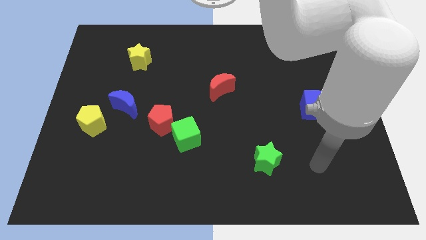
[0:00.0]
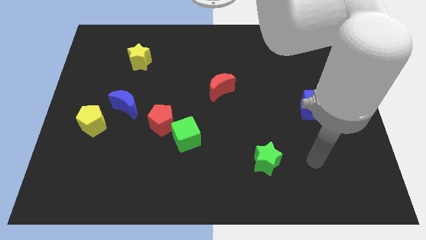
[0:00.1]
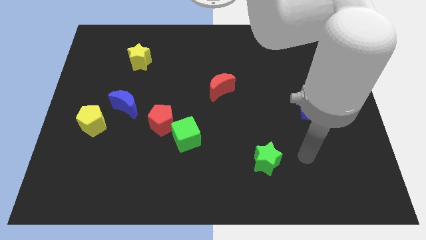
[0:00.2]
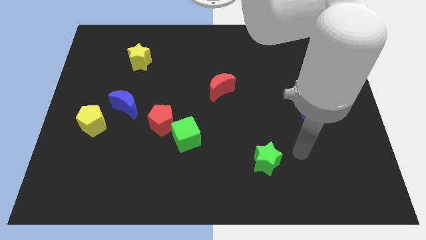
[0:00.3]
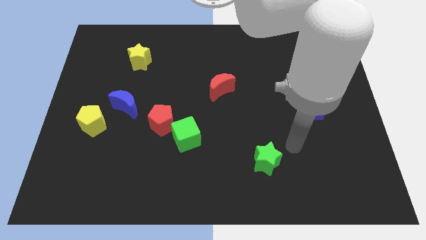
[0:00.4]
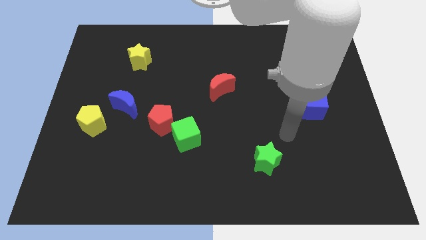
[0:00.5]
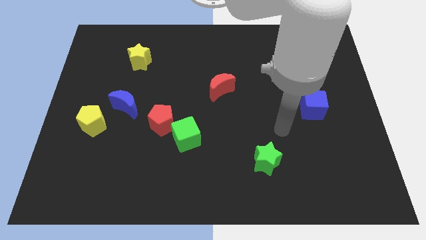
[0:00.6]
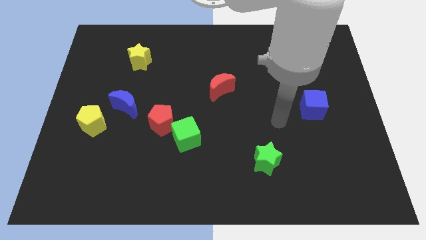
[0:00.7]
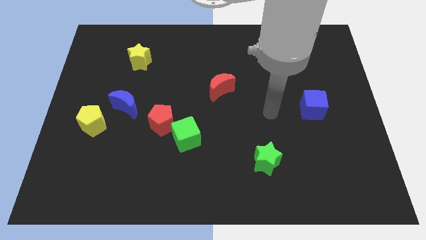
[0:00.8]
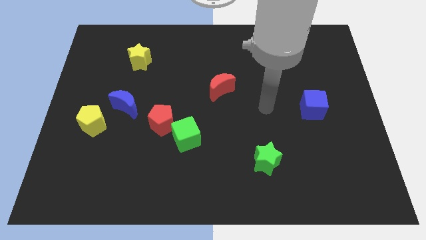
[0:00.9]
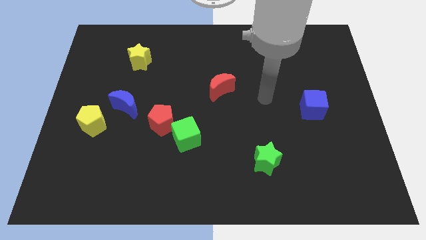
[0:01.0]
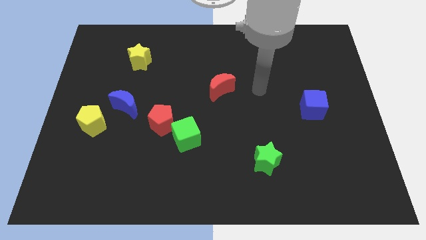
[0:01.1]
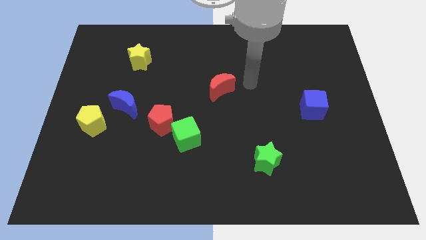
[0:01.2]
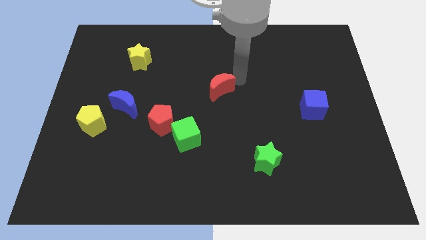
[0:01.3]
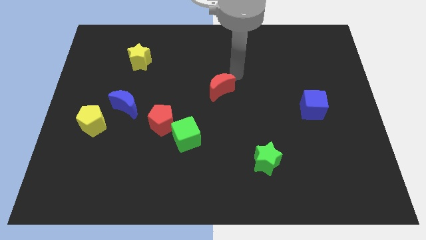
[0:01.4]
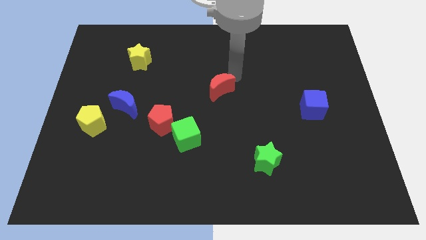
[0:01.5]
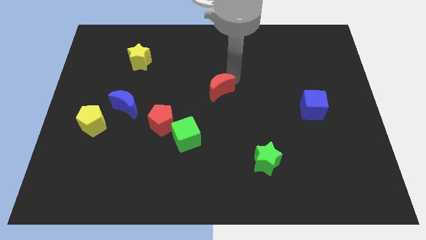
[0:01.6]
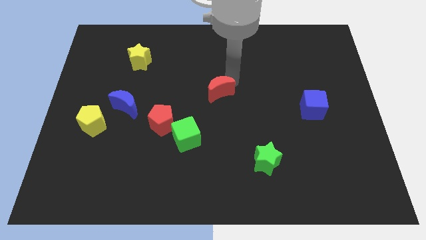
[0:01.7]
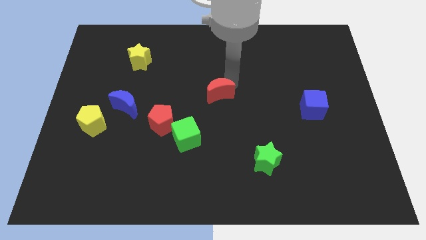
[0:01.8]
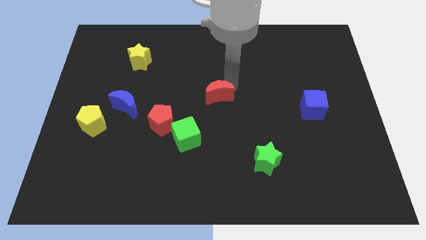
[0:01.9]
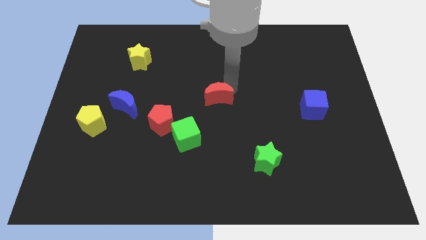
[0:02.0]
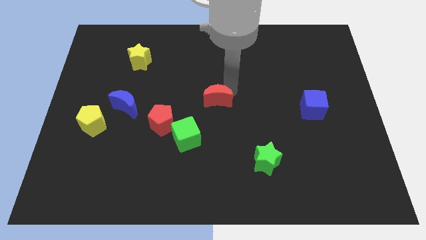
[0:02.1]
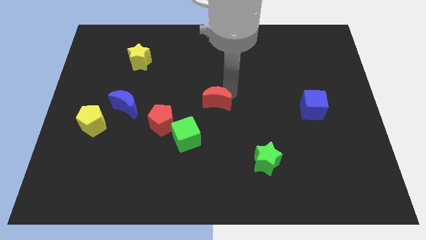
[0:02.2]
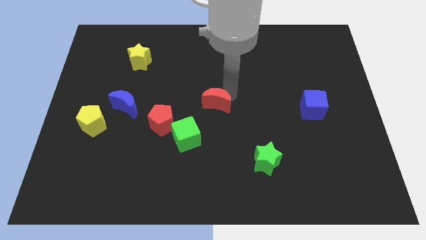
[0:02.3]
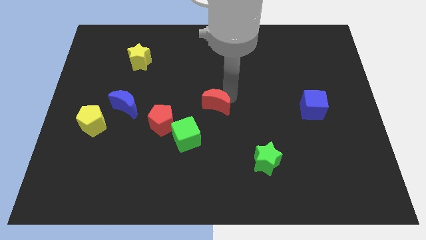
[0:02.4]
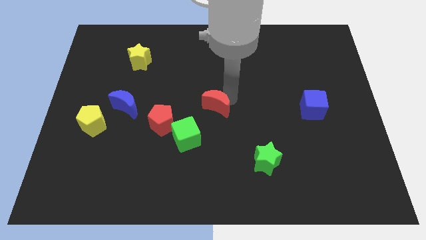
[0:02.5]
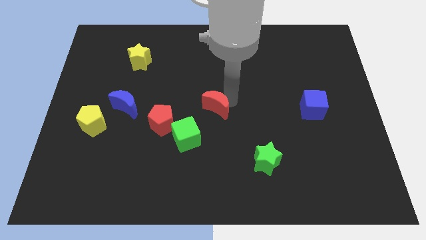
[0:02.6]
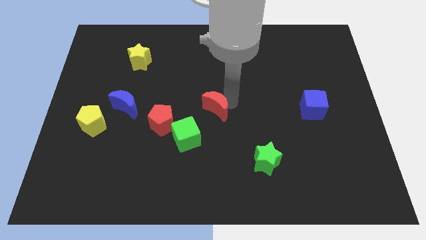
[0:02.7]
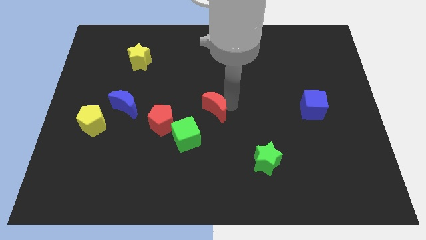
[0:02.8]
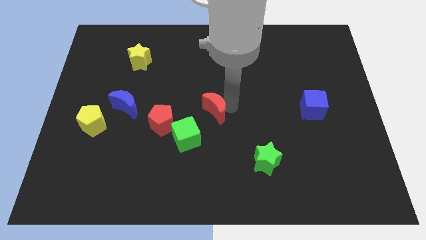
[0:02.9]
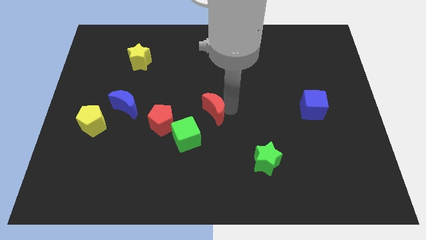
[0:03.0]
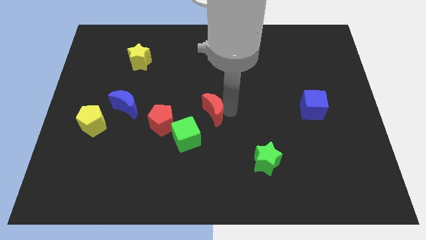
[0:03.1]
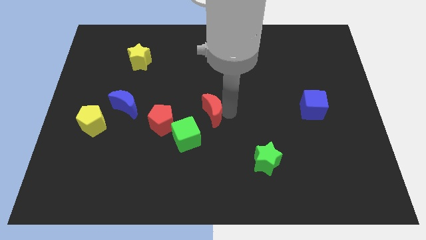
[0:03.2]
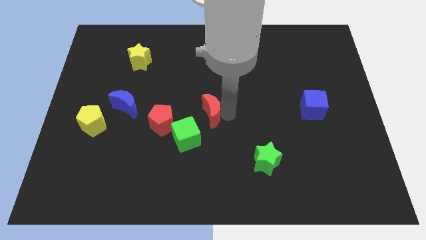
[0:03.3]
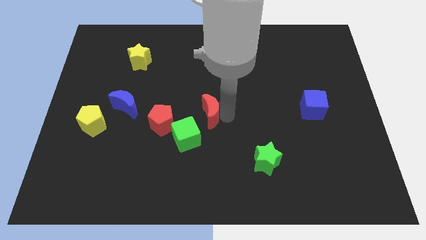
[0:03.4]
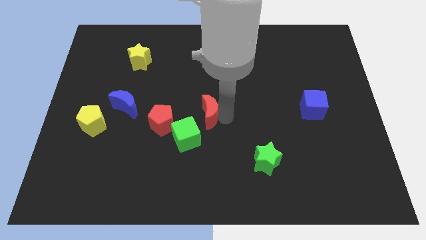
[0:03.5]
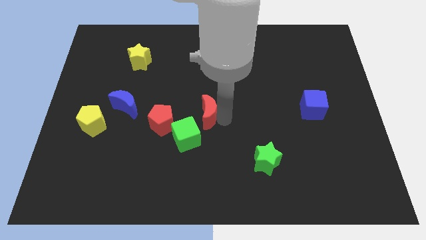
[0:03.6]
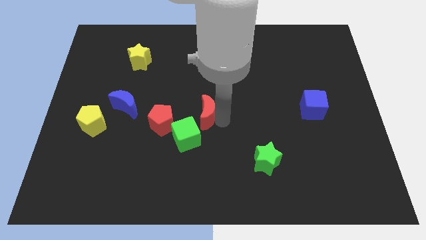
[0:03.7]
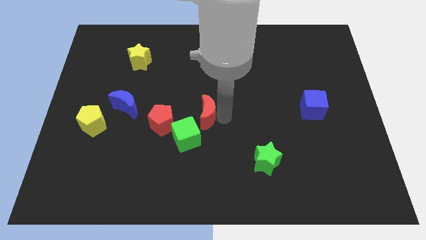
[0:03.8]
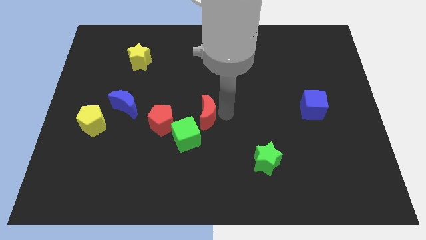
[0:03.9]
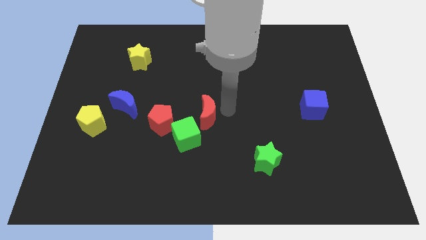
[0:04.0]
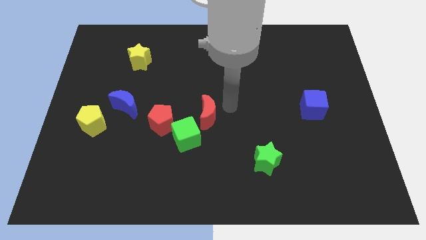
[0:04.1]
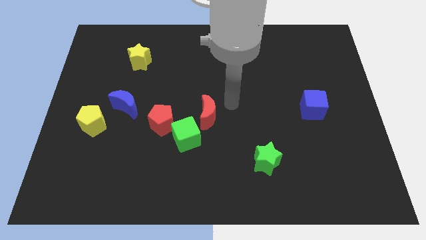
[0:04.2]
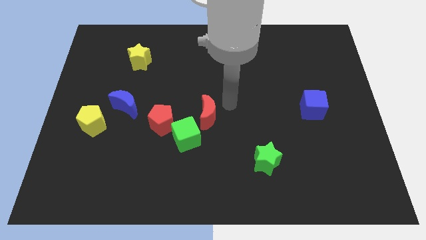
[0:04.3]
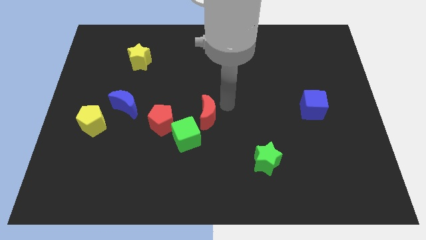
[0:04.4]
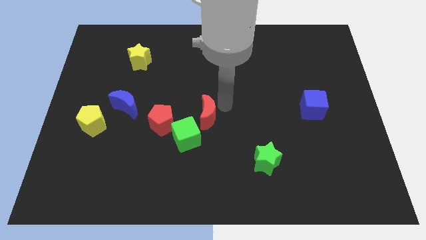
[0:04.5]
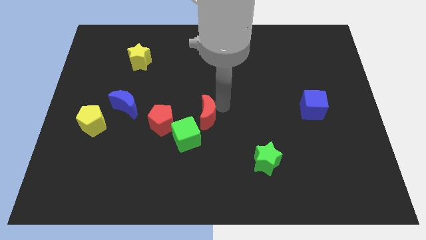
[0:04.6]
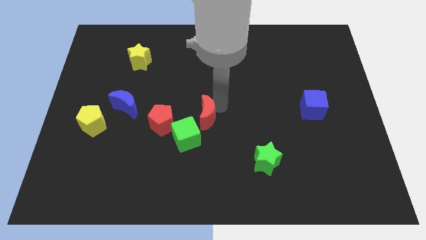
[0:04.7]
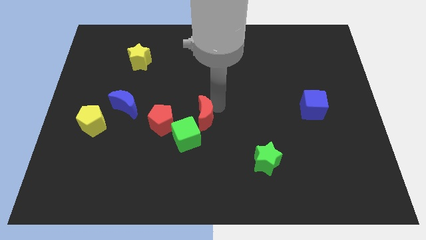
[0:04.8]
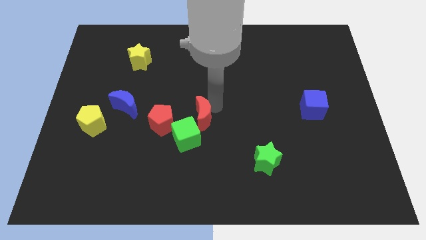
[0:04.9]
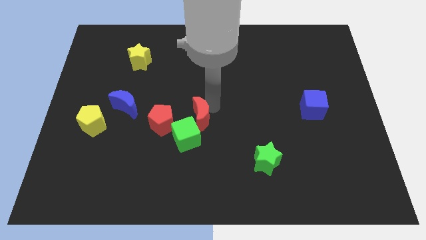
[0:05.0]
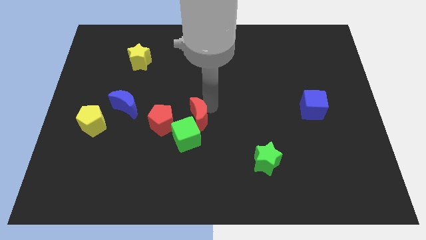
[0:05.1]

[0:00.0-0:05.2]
put the red moon to the green cube

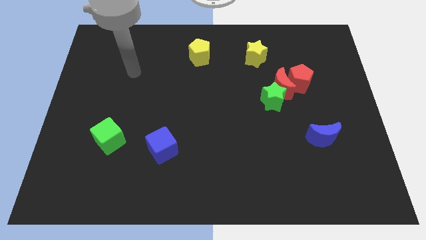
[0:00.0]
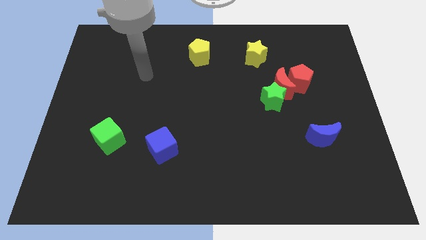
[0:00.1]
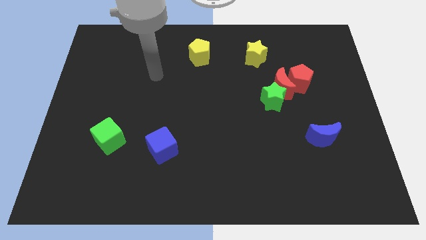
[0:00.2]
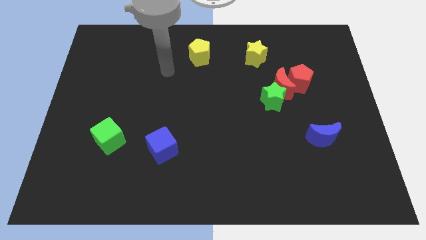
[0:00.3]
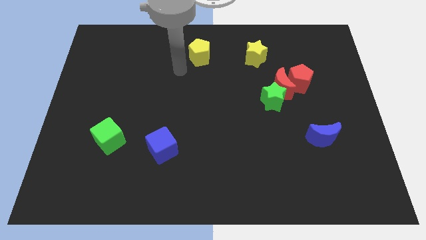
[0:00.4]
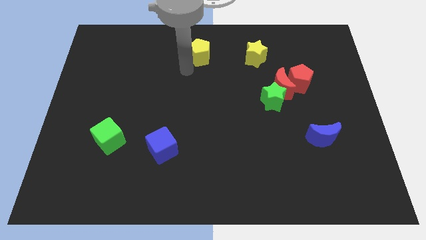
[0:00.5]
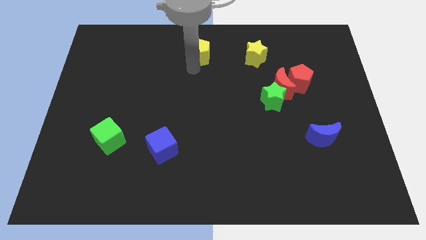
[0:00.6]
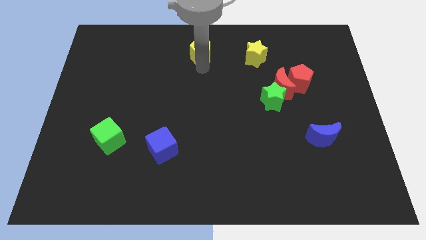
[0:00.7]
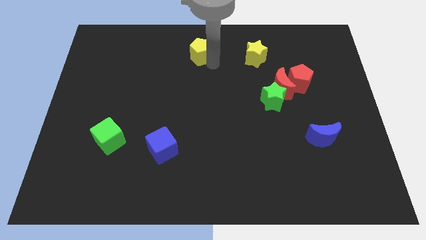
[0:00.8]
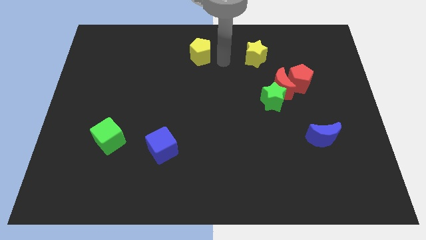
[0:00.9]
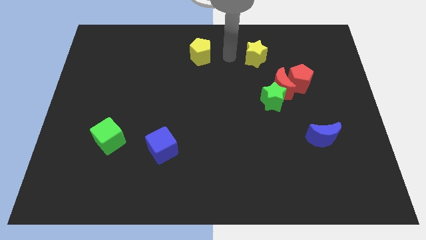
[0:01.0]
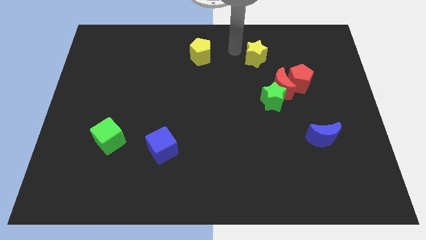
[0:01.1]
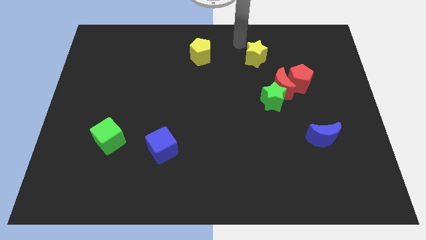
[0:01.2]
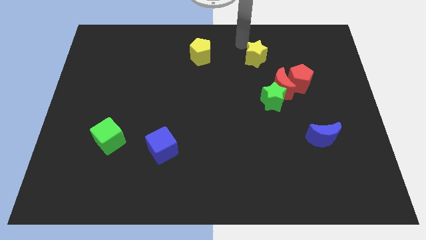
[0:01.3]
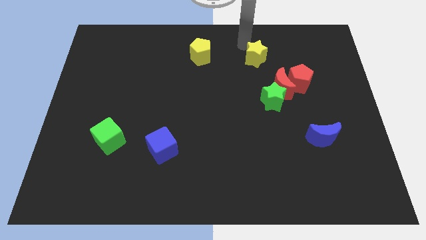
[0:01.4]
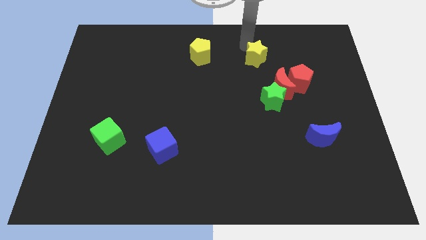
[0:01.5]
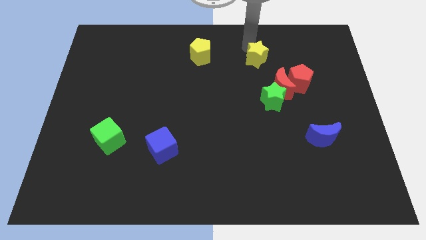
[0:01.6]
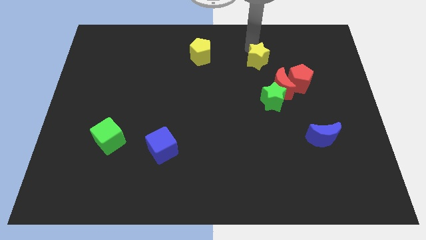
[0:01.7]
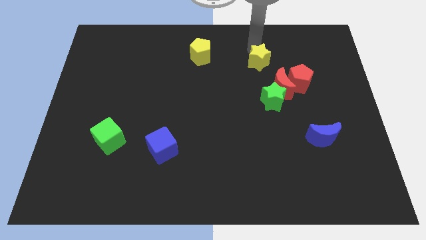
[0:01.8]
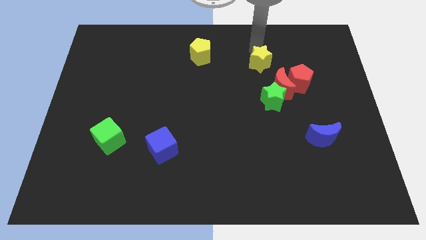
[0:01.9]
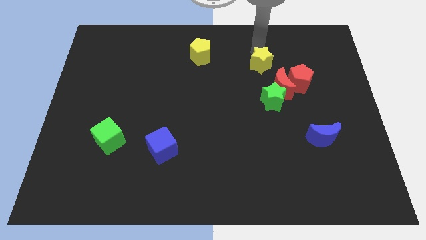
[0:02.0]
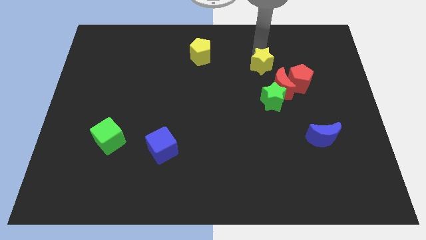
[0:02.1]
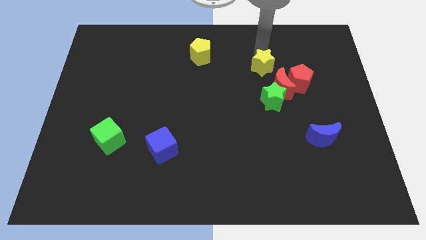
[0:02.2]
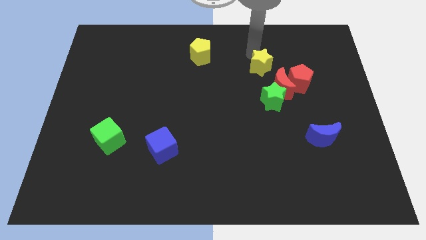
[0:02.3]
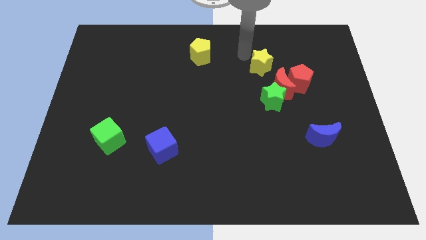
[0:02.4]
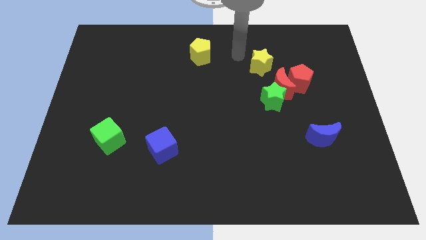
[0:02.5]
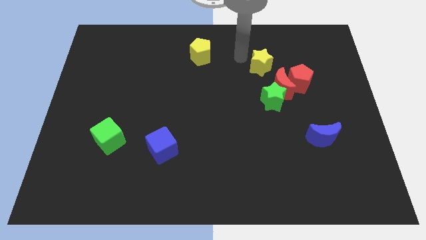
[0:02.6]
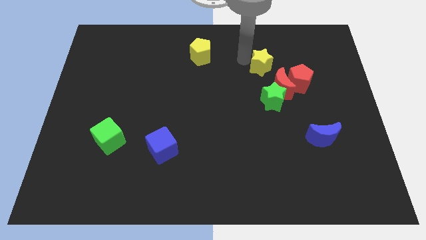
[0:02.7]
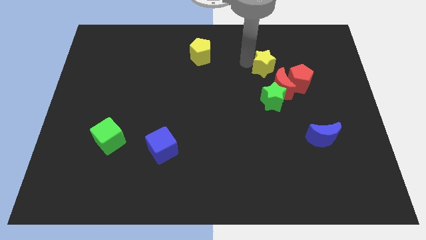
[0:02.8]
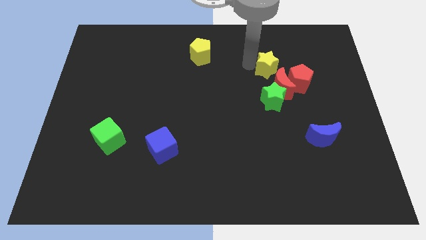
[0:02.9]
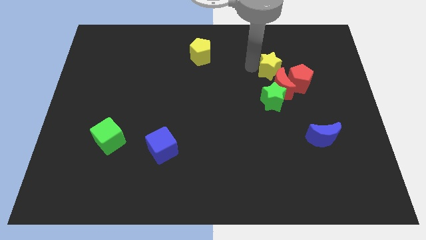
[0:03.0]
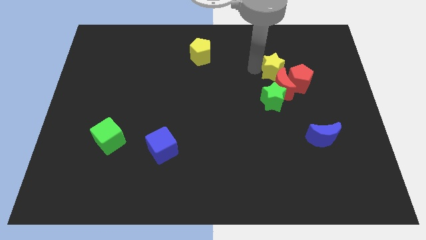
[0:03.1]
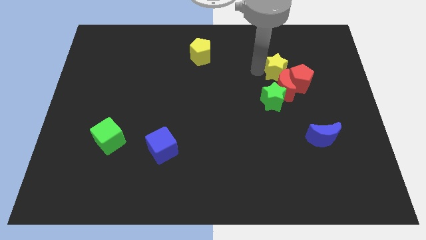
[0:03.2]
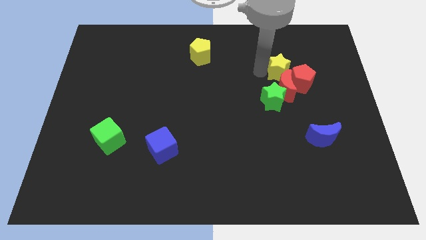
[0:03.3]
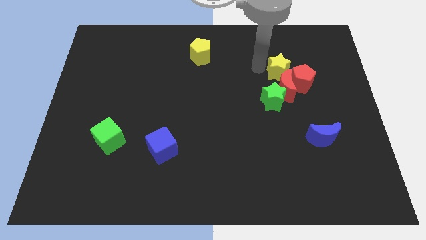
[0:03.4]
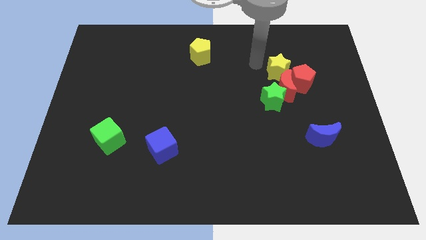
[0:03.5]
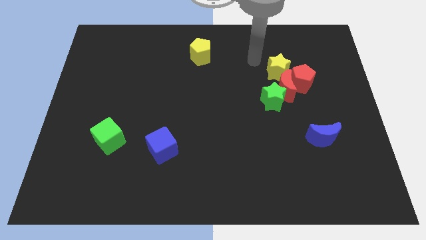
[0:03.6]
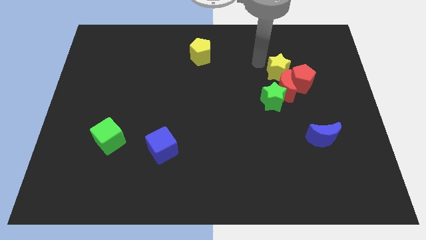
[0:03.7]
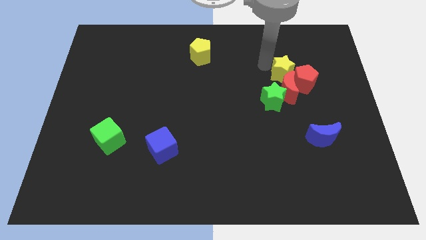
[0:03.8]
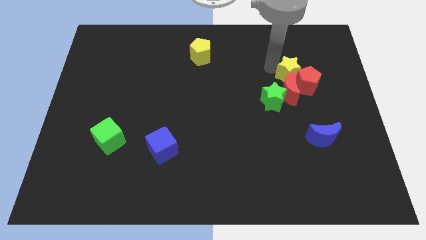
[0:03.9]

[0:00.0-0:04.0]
slide the yellow star close to the red pentagon
